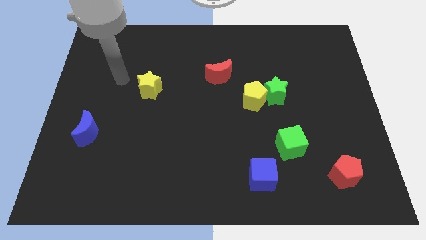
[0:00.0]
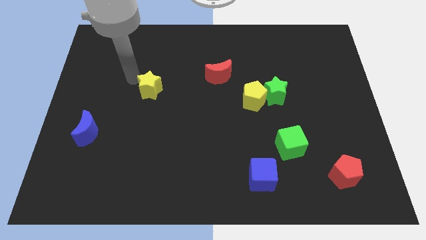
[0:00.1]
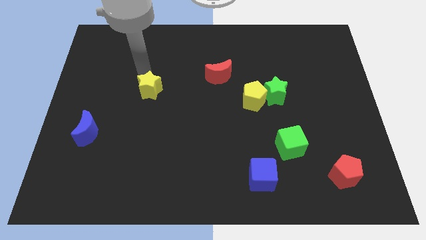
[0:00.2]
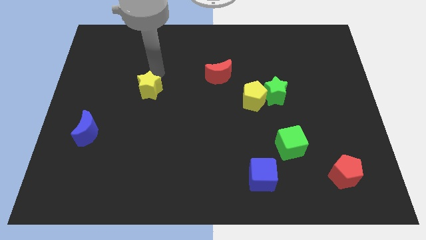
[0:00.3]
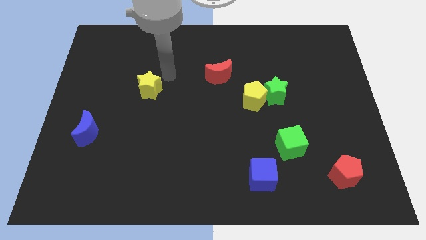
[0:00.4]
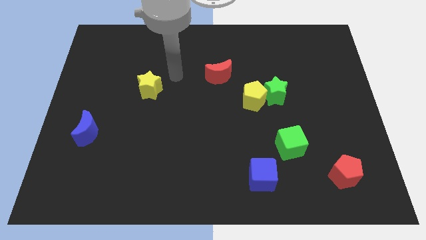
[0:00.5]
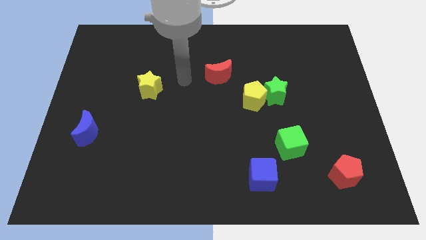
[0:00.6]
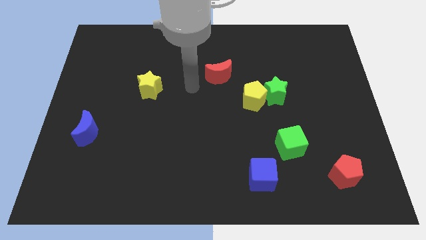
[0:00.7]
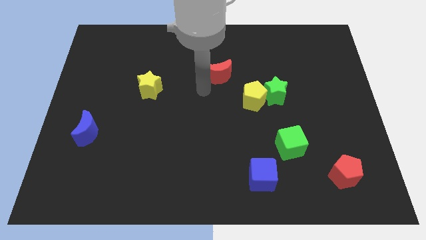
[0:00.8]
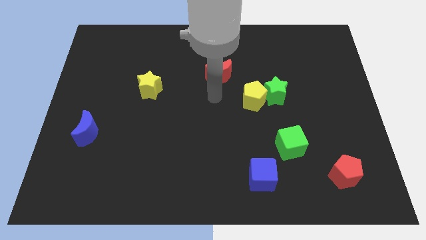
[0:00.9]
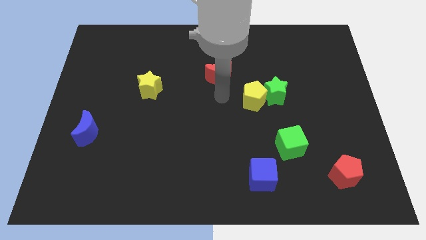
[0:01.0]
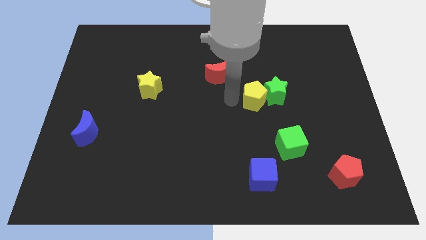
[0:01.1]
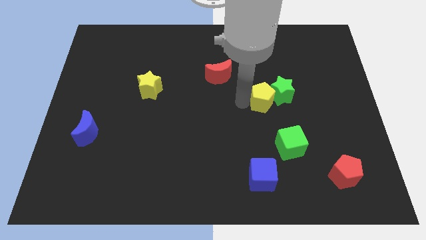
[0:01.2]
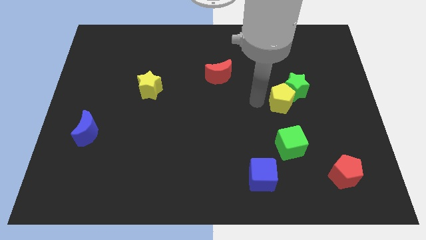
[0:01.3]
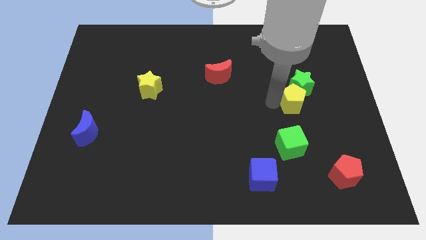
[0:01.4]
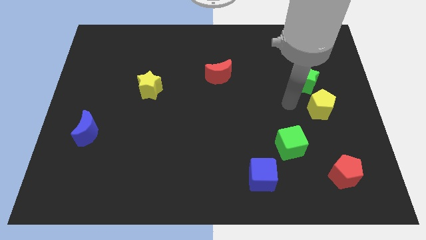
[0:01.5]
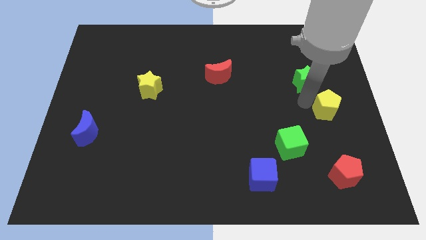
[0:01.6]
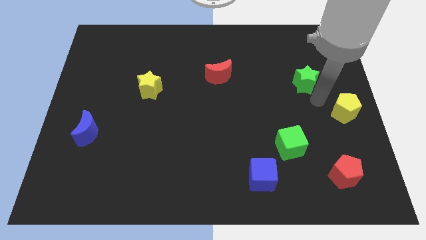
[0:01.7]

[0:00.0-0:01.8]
move the green star away from the yellow pentagon

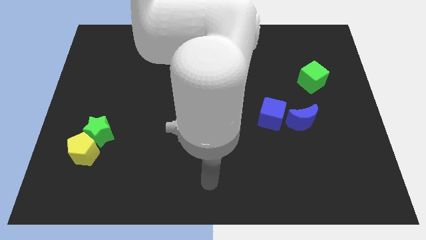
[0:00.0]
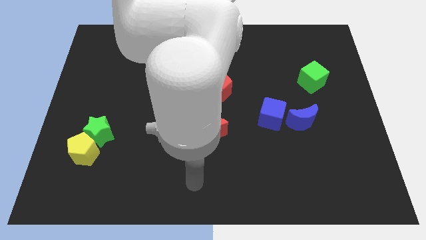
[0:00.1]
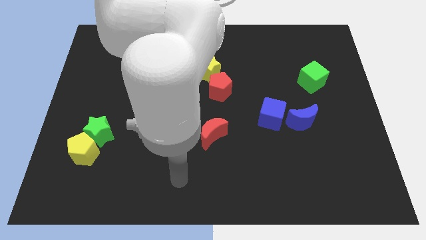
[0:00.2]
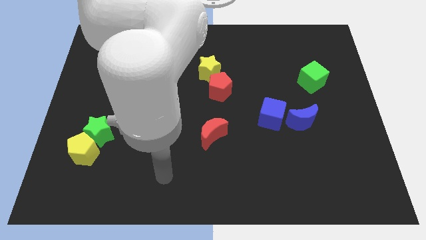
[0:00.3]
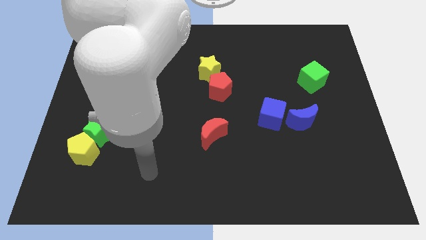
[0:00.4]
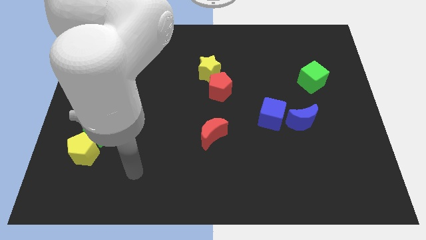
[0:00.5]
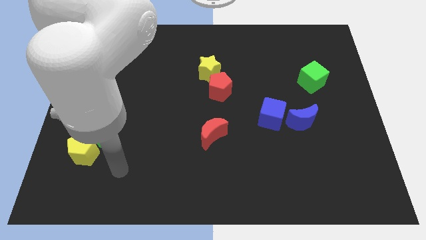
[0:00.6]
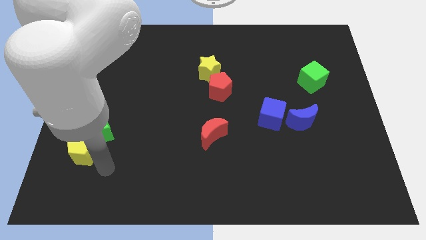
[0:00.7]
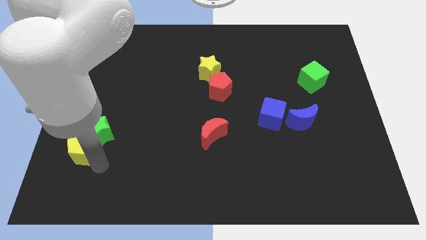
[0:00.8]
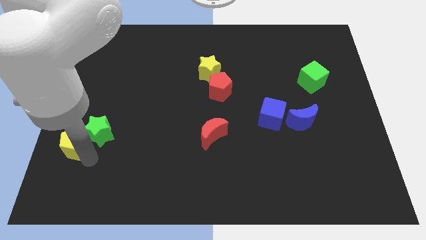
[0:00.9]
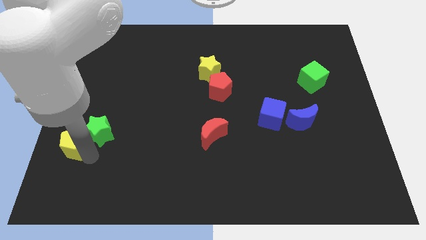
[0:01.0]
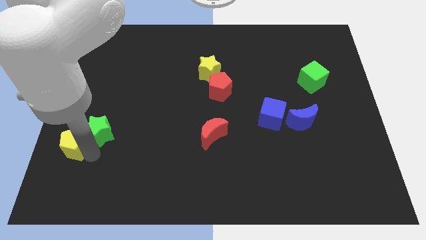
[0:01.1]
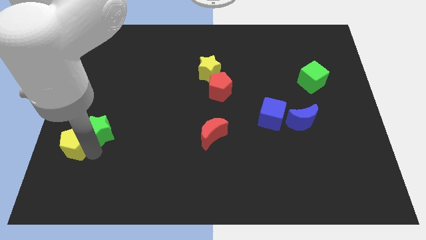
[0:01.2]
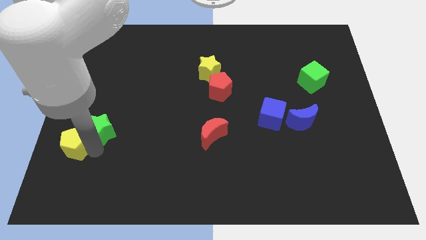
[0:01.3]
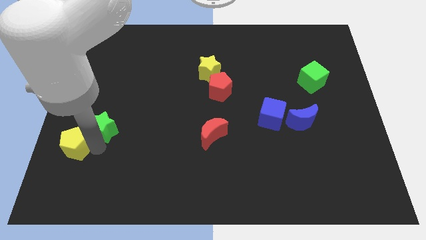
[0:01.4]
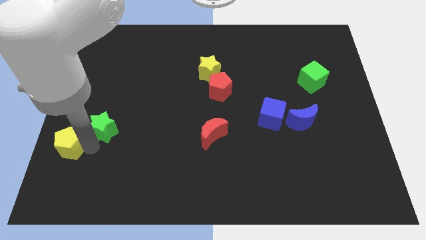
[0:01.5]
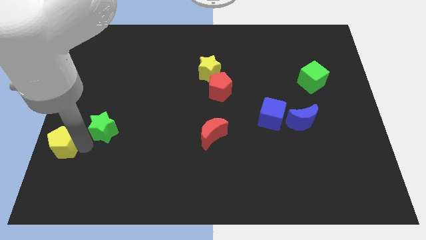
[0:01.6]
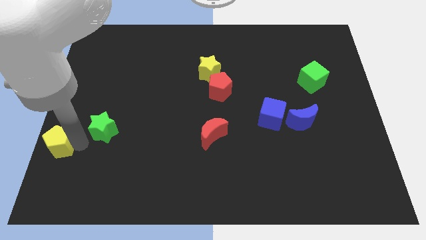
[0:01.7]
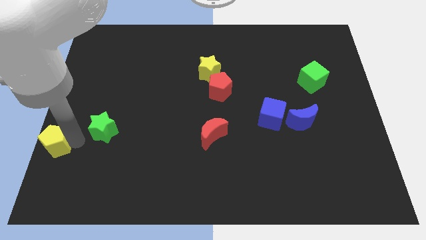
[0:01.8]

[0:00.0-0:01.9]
pull the green star apart from the yellow pentagon

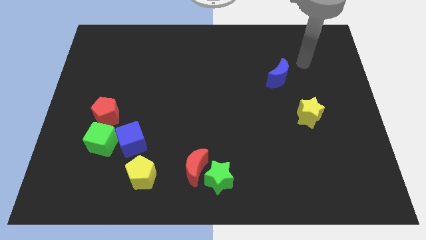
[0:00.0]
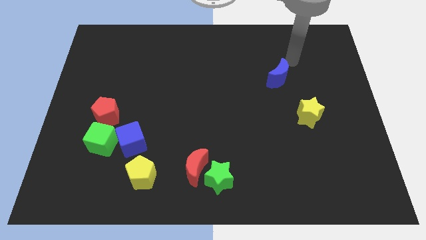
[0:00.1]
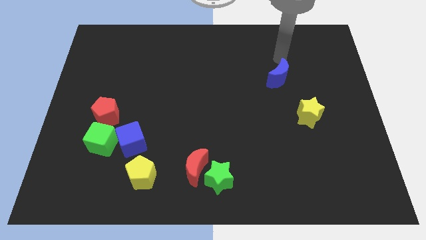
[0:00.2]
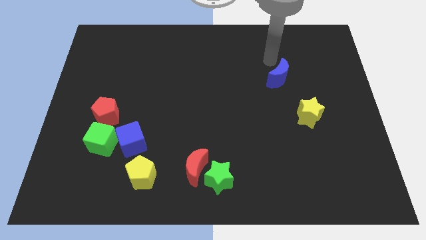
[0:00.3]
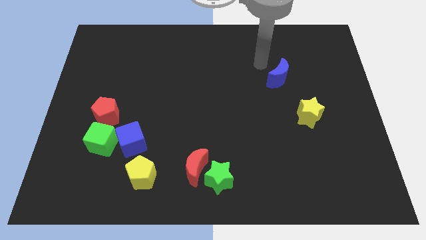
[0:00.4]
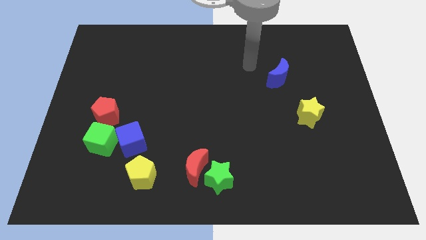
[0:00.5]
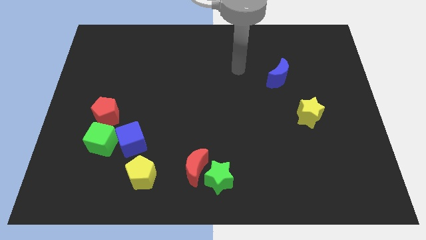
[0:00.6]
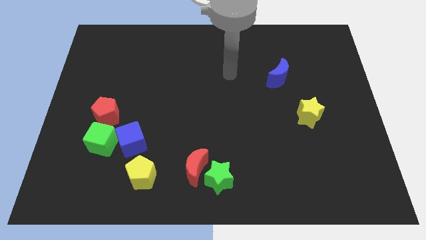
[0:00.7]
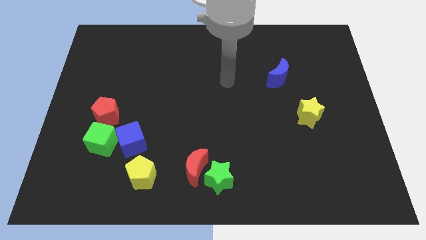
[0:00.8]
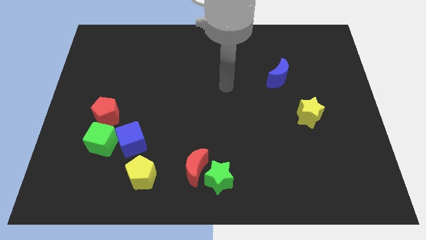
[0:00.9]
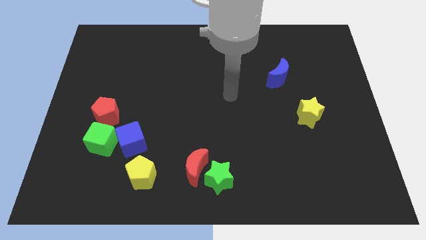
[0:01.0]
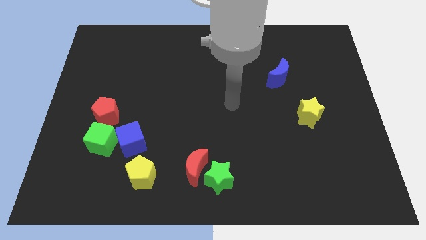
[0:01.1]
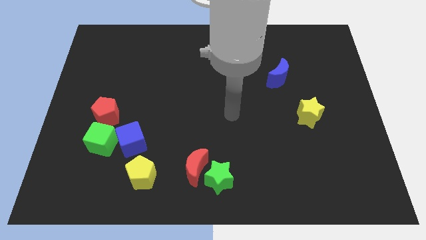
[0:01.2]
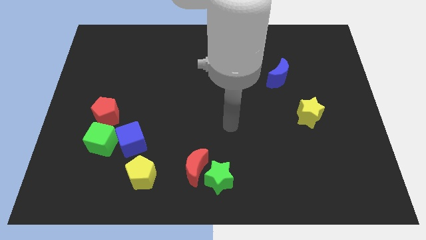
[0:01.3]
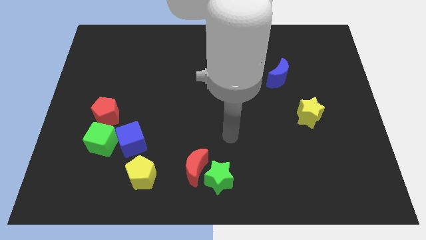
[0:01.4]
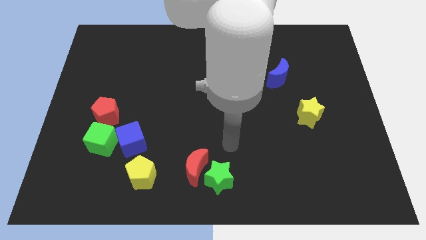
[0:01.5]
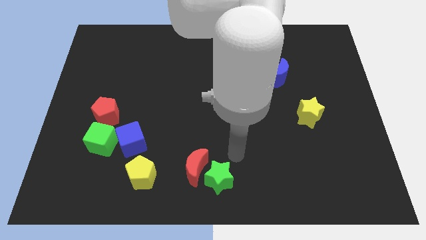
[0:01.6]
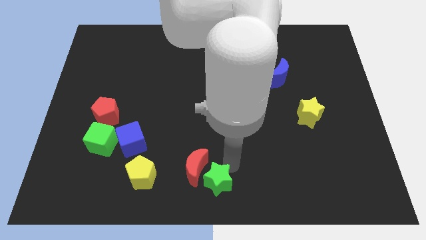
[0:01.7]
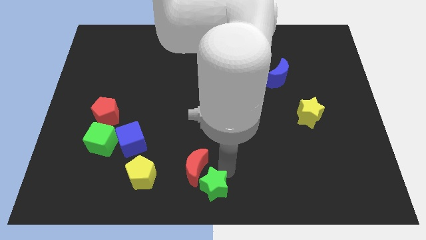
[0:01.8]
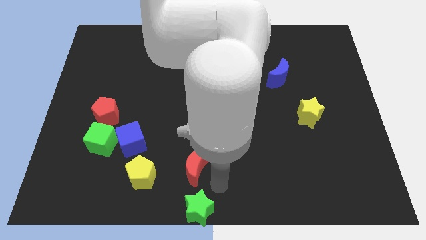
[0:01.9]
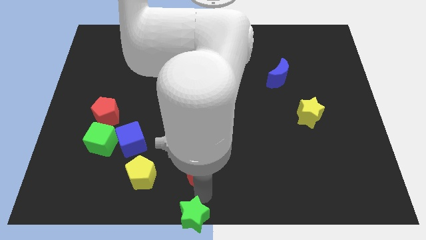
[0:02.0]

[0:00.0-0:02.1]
move the red moon away from the green star

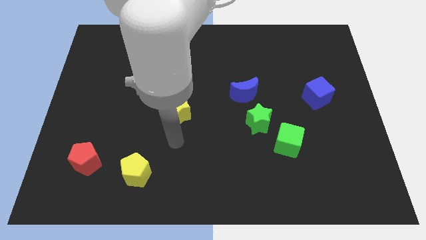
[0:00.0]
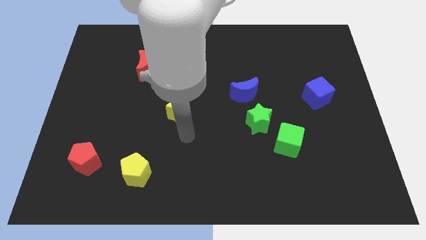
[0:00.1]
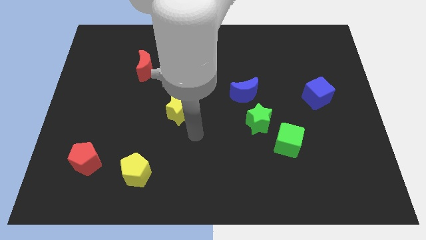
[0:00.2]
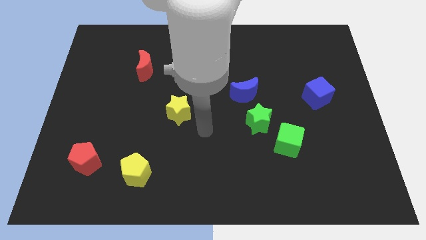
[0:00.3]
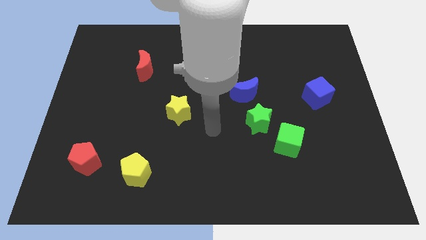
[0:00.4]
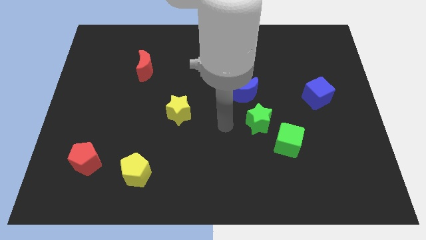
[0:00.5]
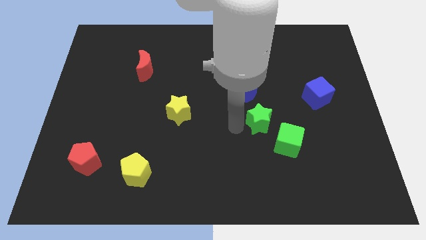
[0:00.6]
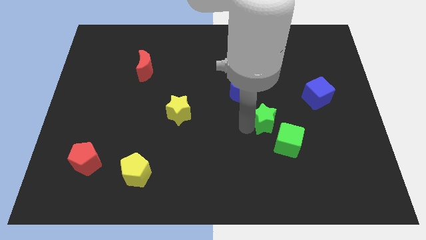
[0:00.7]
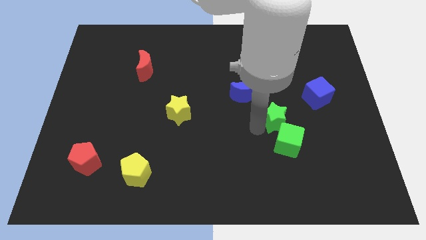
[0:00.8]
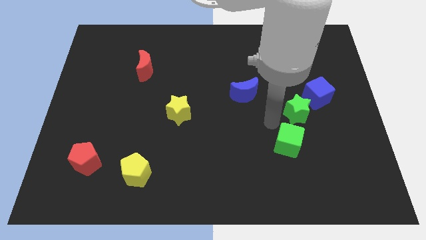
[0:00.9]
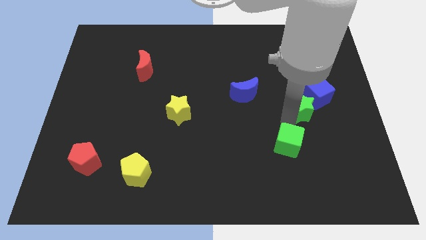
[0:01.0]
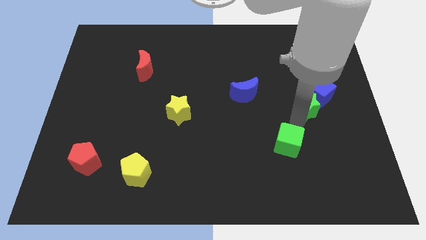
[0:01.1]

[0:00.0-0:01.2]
pull the green cube apart from the green star

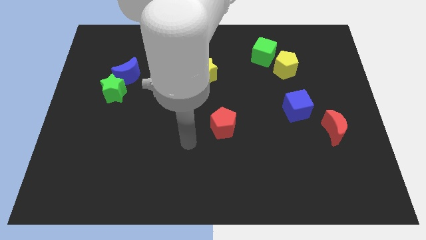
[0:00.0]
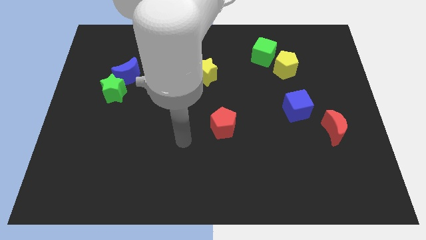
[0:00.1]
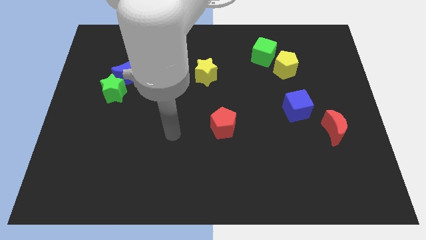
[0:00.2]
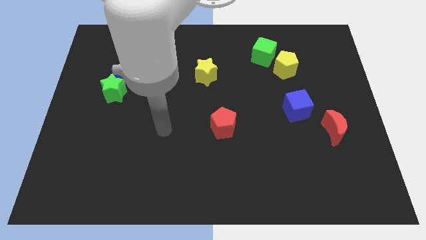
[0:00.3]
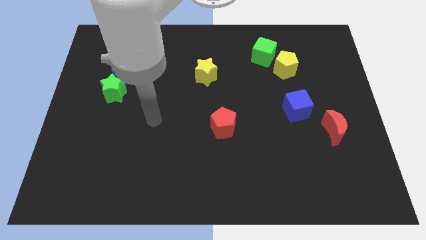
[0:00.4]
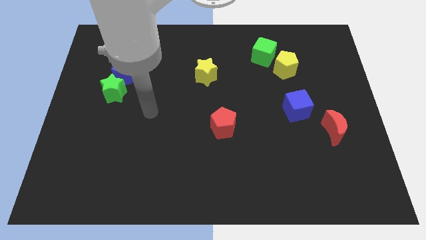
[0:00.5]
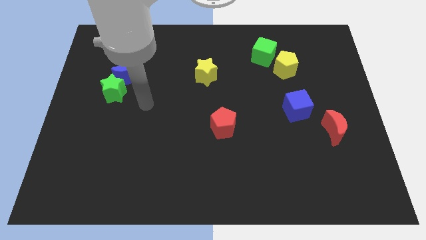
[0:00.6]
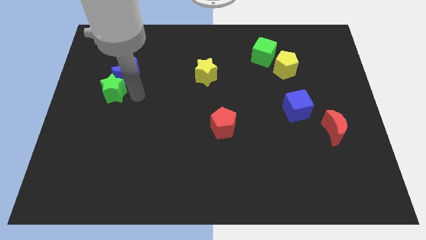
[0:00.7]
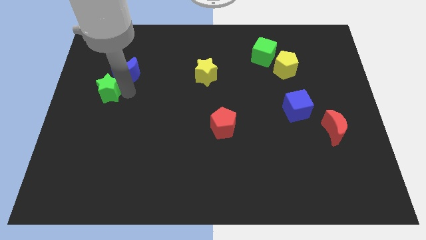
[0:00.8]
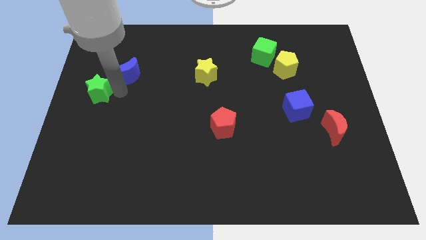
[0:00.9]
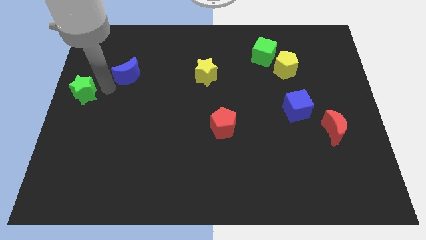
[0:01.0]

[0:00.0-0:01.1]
separate the blue moon from the green star

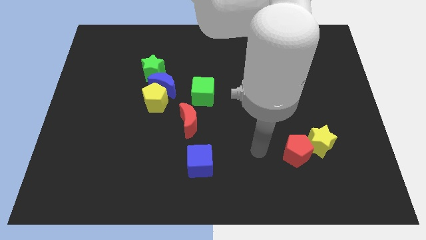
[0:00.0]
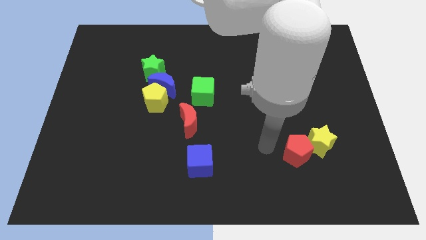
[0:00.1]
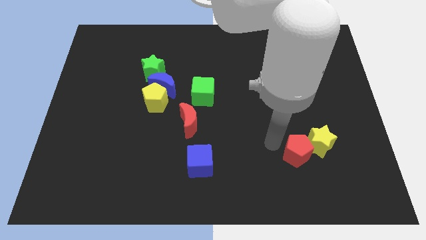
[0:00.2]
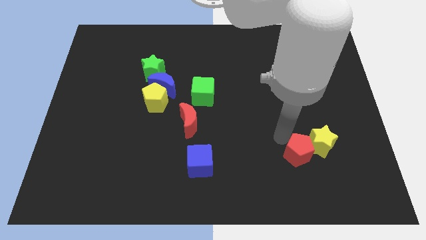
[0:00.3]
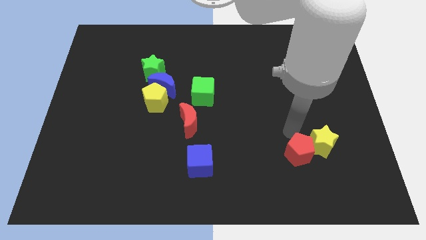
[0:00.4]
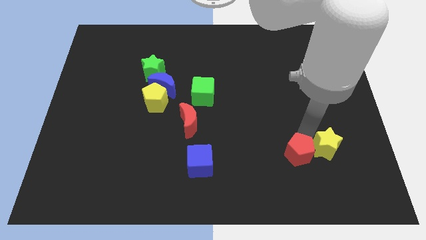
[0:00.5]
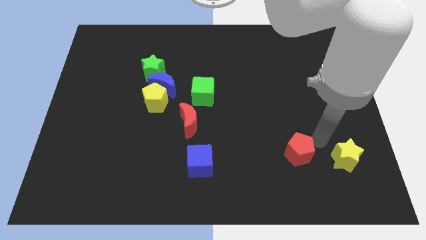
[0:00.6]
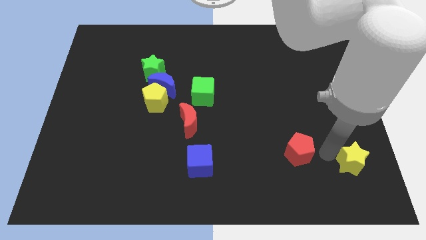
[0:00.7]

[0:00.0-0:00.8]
move the red pentagon away from the yellow star

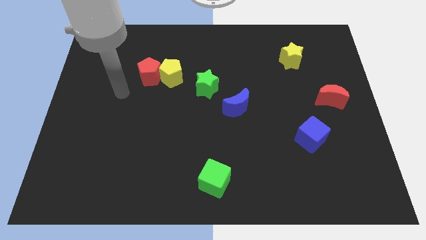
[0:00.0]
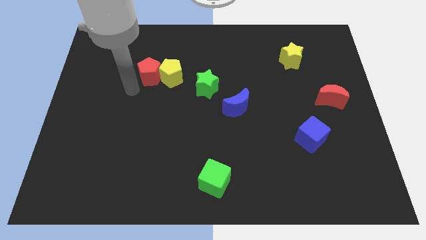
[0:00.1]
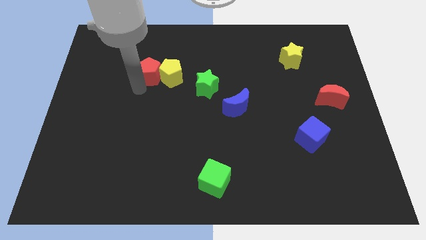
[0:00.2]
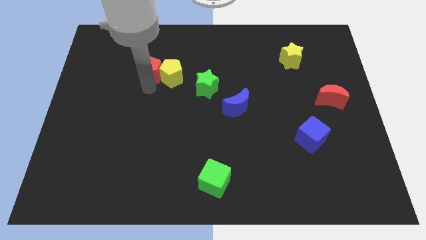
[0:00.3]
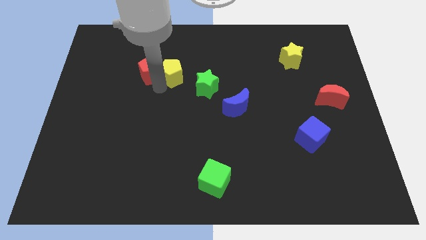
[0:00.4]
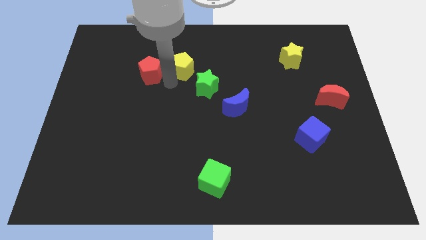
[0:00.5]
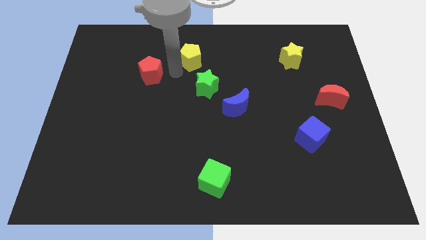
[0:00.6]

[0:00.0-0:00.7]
pull the red pentagon apart from the yellow pentagon
